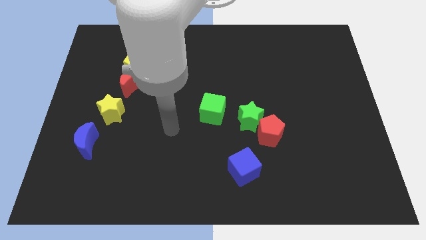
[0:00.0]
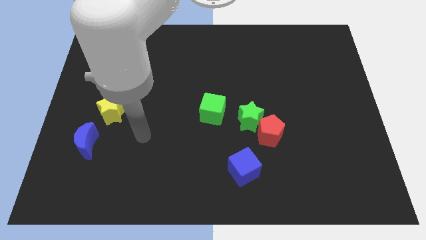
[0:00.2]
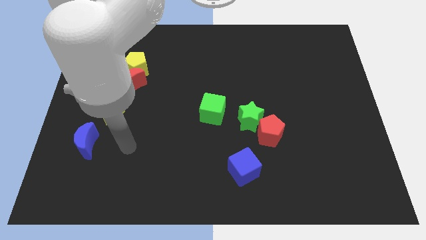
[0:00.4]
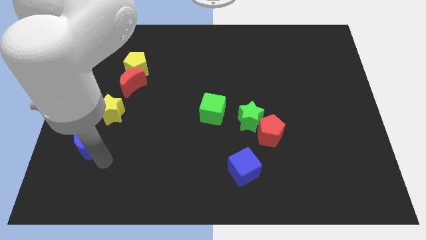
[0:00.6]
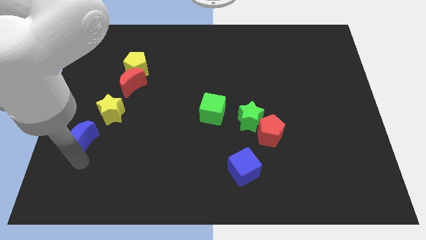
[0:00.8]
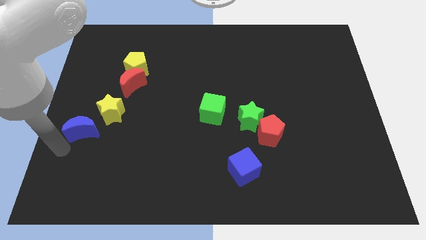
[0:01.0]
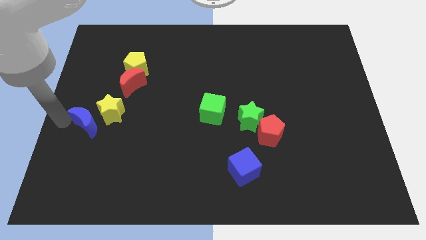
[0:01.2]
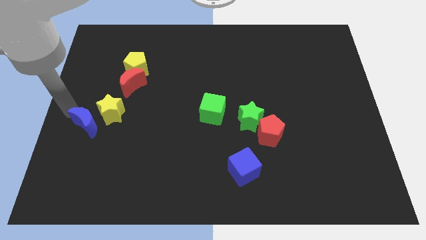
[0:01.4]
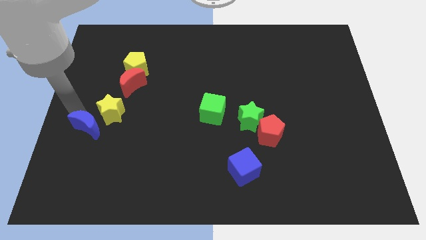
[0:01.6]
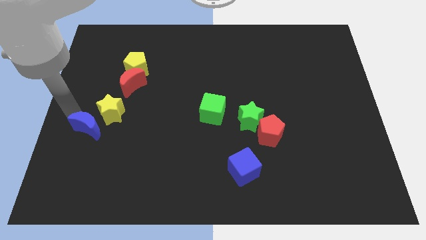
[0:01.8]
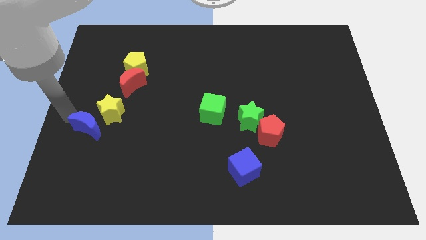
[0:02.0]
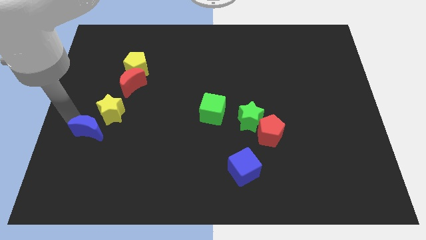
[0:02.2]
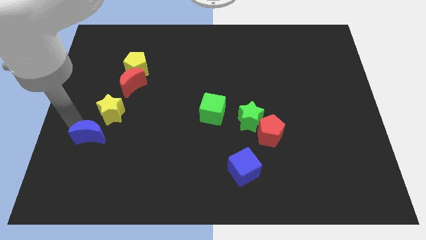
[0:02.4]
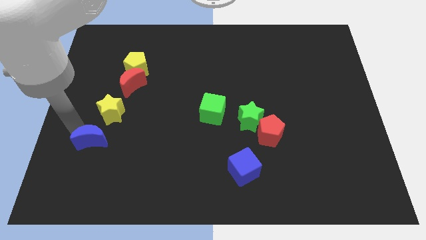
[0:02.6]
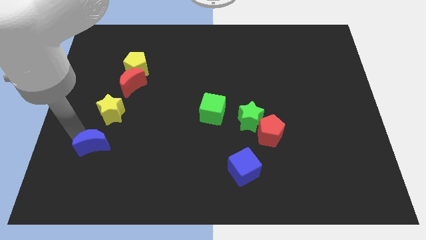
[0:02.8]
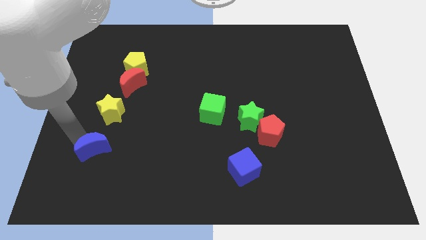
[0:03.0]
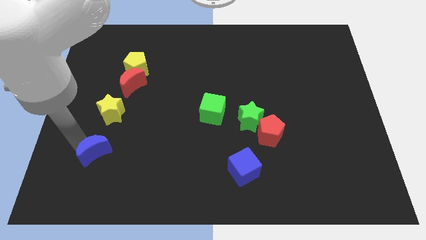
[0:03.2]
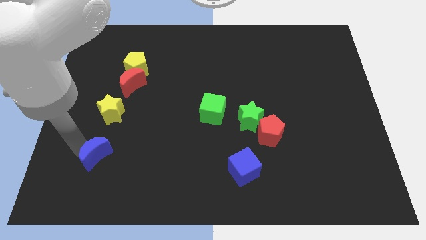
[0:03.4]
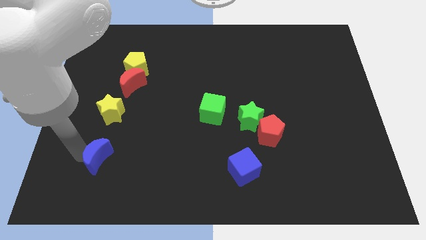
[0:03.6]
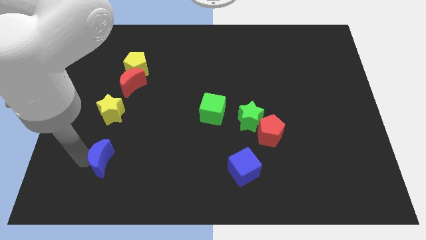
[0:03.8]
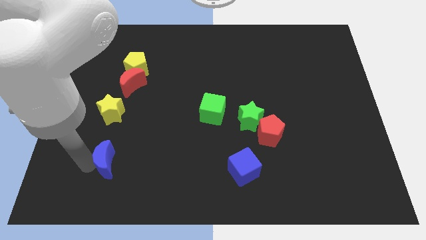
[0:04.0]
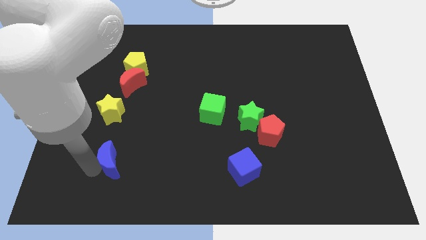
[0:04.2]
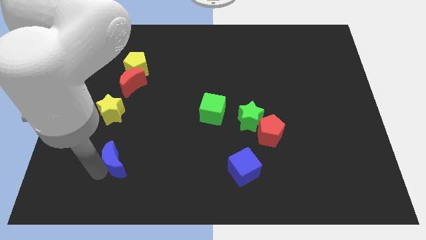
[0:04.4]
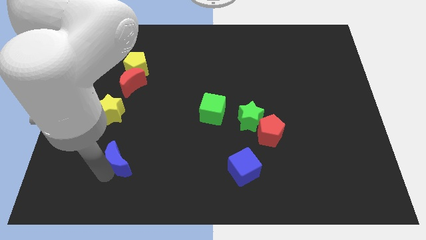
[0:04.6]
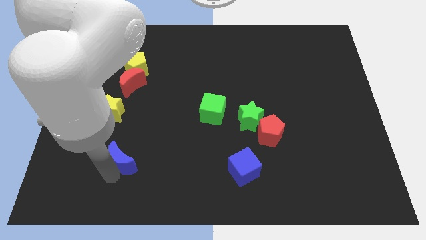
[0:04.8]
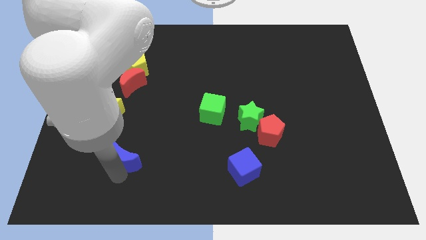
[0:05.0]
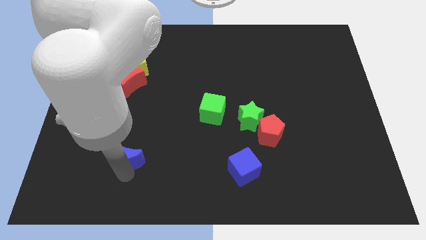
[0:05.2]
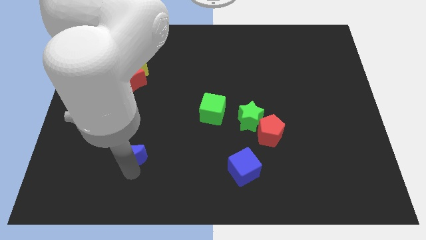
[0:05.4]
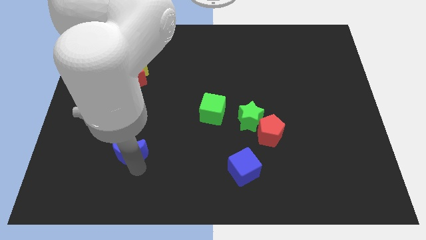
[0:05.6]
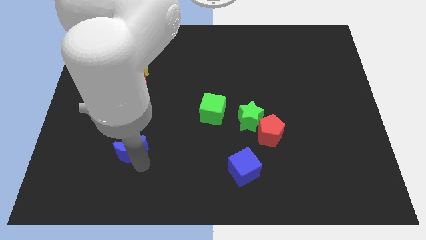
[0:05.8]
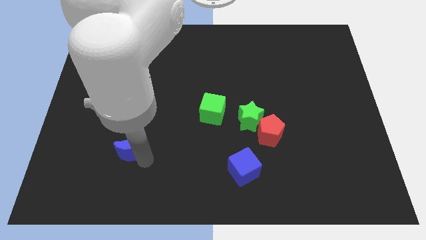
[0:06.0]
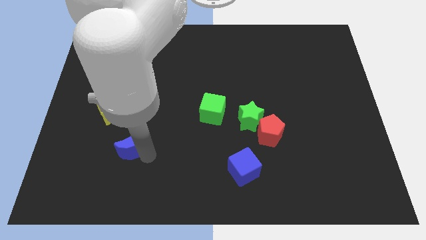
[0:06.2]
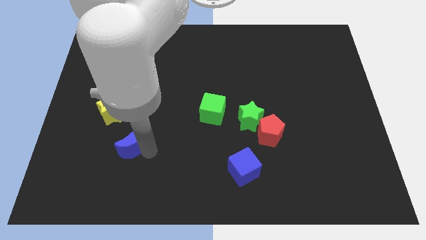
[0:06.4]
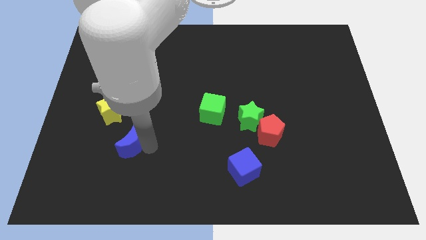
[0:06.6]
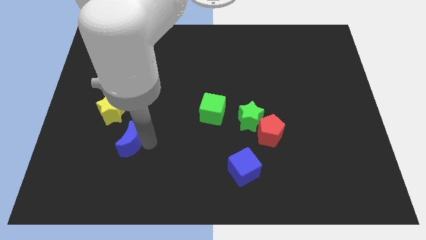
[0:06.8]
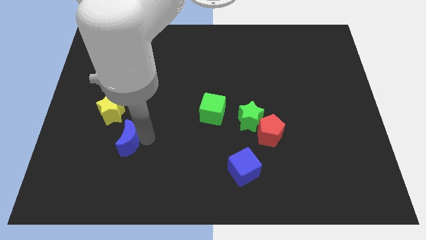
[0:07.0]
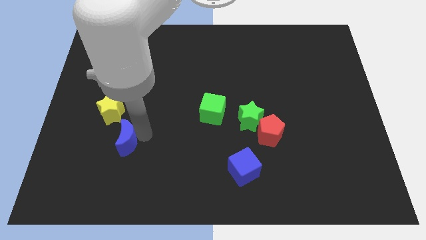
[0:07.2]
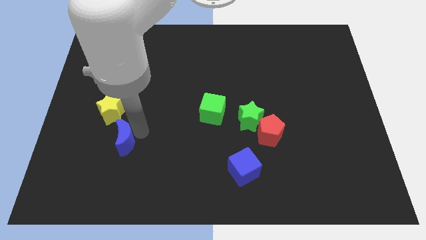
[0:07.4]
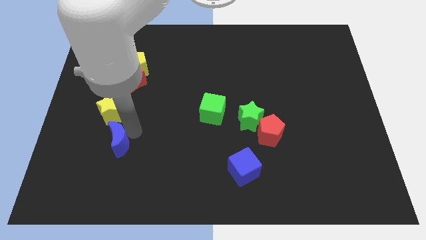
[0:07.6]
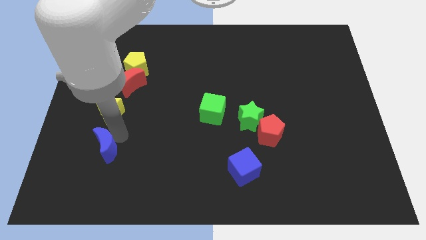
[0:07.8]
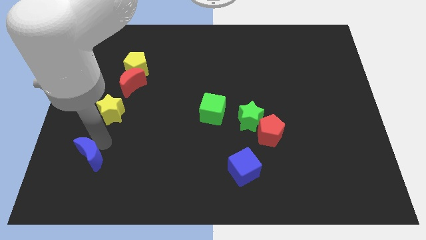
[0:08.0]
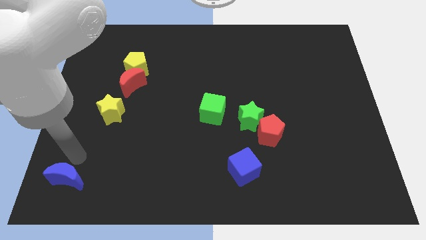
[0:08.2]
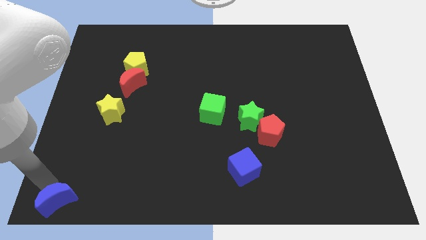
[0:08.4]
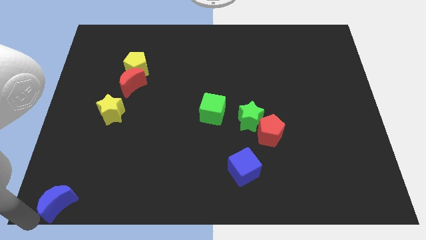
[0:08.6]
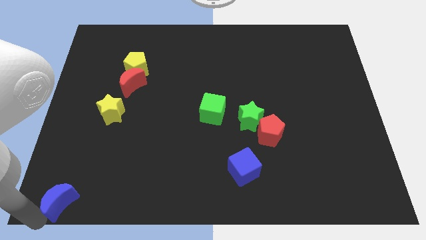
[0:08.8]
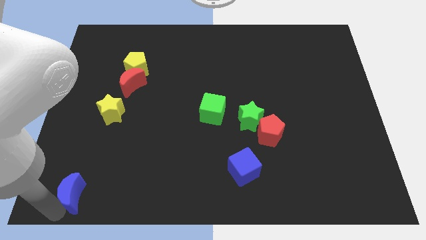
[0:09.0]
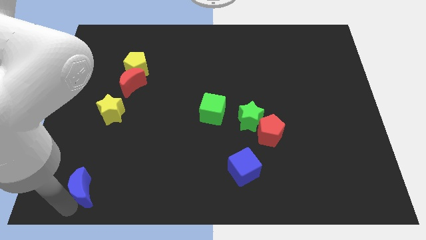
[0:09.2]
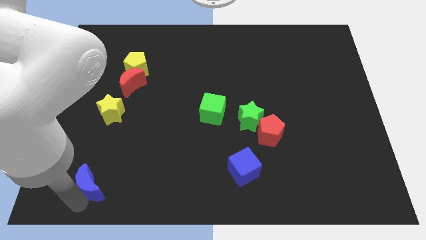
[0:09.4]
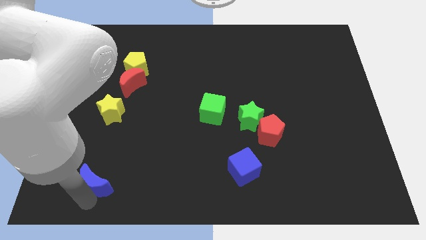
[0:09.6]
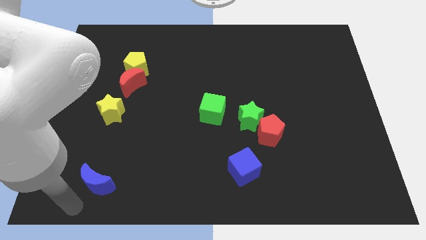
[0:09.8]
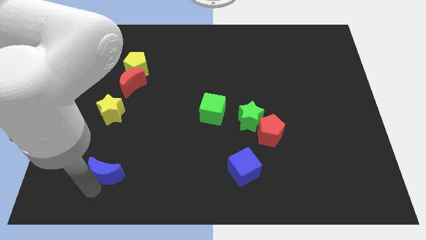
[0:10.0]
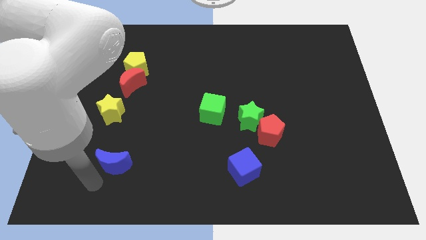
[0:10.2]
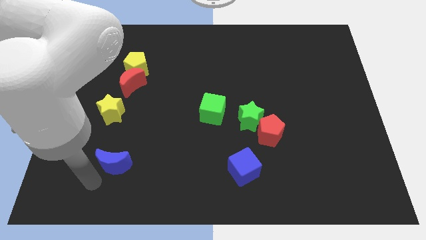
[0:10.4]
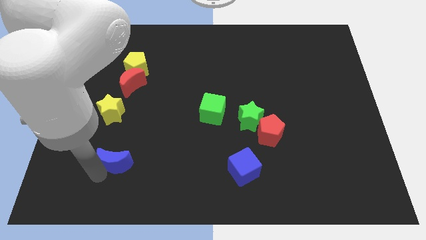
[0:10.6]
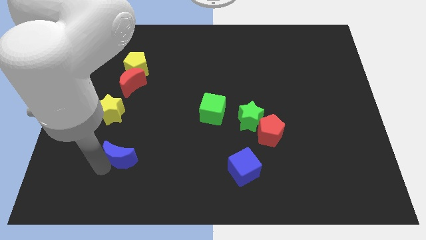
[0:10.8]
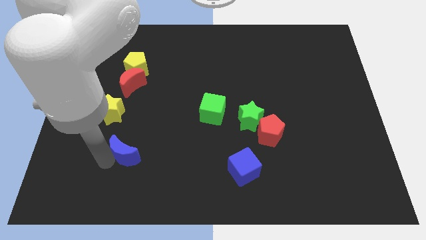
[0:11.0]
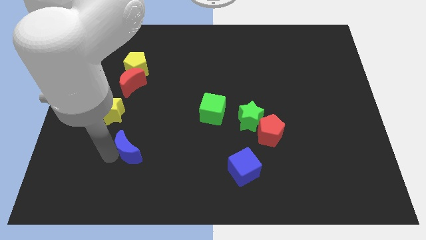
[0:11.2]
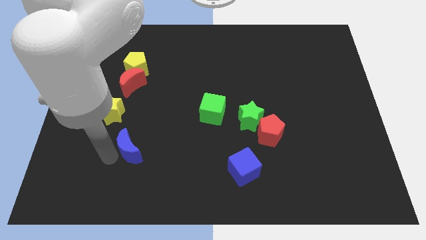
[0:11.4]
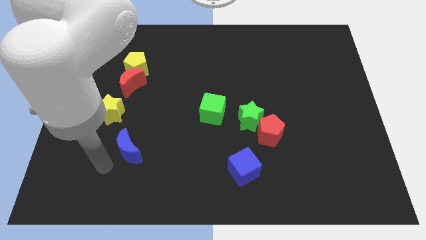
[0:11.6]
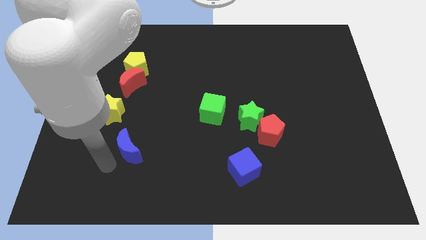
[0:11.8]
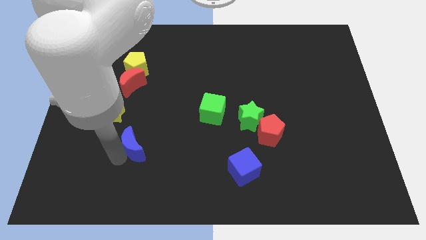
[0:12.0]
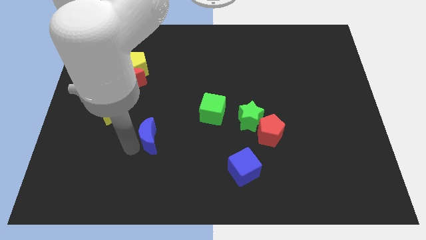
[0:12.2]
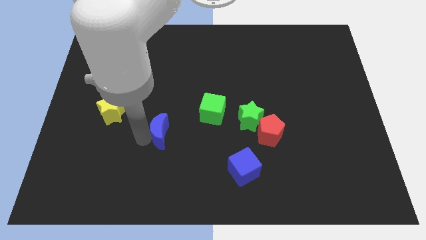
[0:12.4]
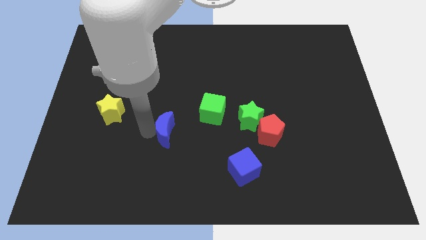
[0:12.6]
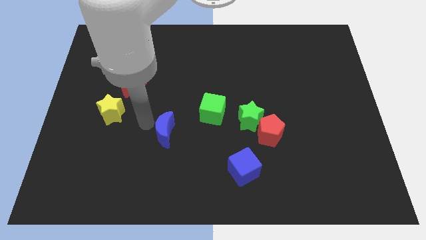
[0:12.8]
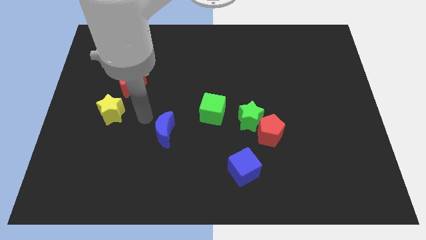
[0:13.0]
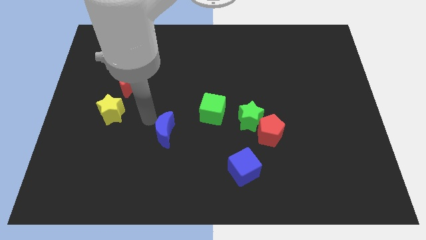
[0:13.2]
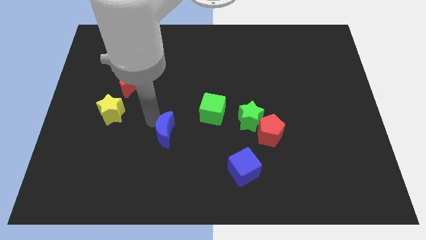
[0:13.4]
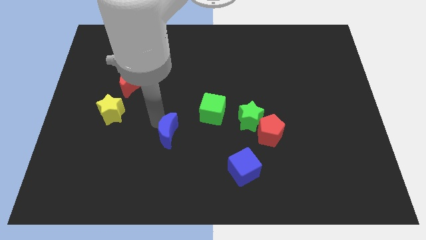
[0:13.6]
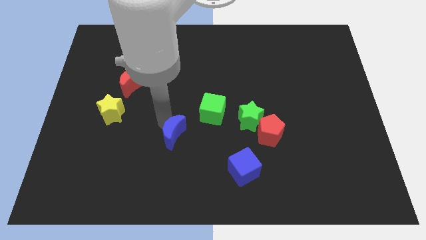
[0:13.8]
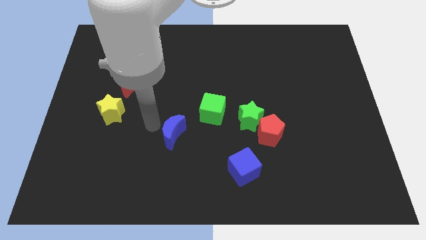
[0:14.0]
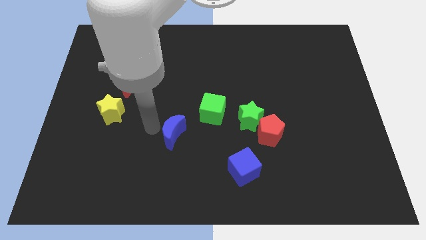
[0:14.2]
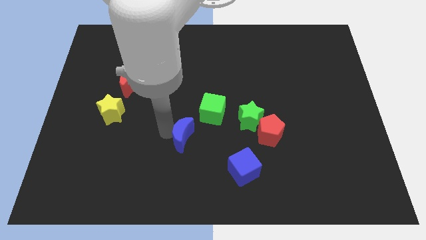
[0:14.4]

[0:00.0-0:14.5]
move the blue moon to the right

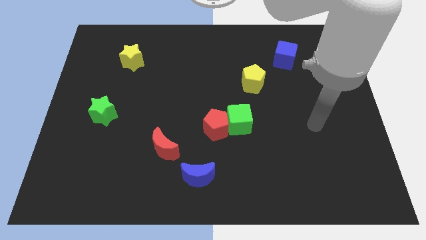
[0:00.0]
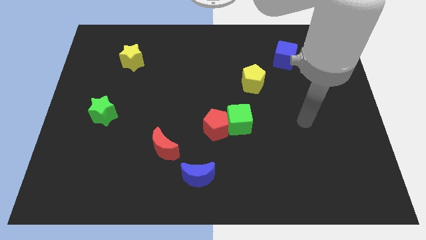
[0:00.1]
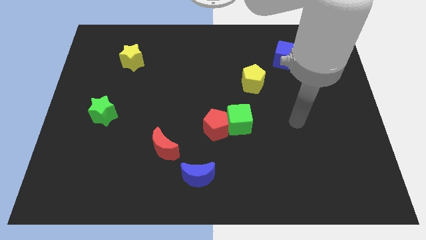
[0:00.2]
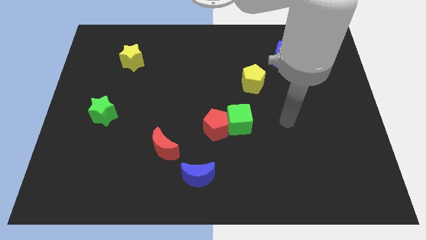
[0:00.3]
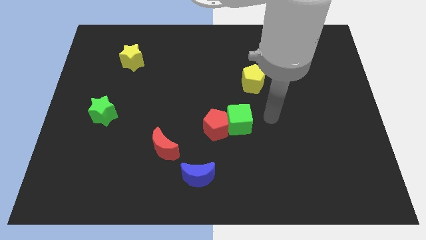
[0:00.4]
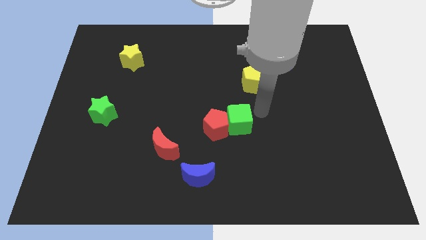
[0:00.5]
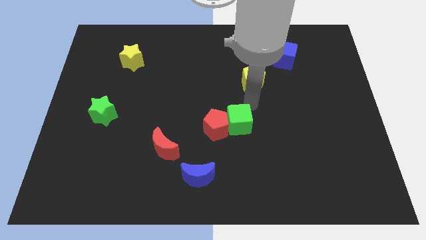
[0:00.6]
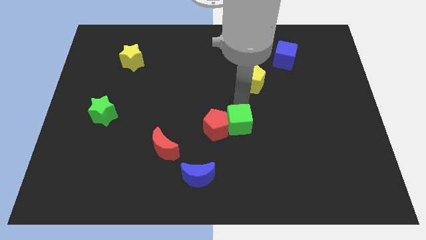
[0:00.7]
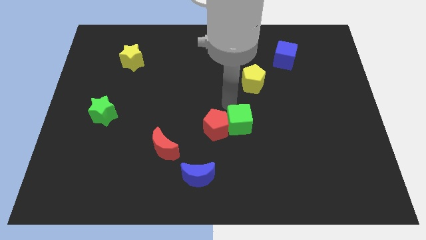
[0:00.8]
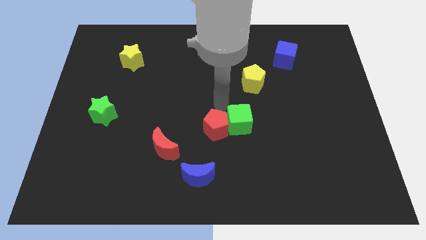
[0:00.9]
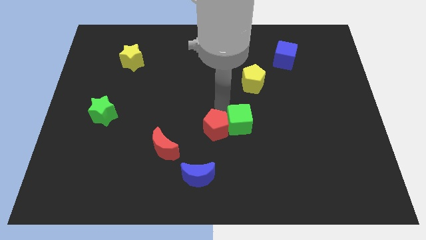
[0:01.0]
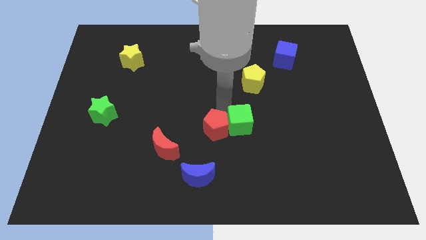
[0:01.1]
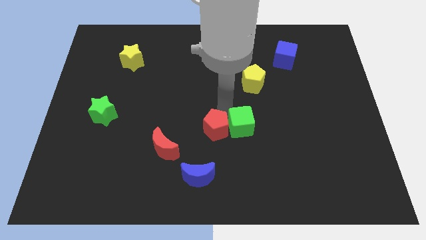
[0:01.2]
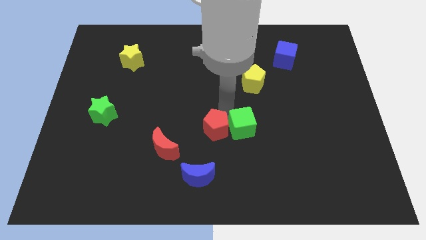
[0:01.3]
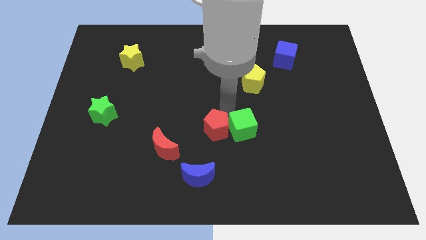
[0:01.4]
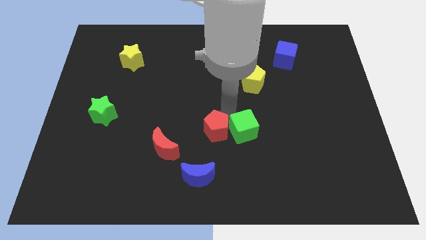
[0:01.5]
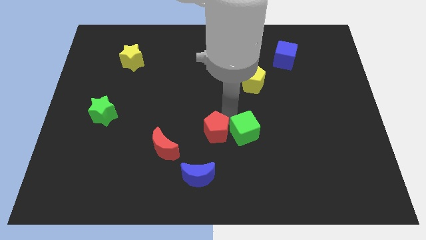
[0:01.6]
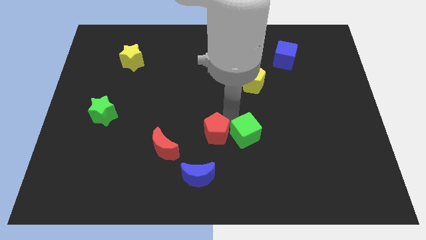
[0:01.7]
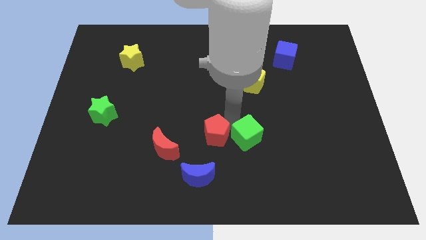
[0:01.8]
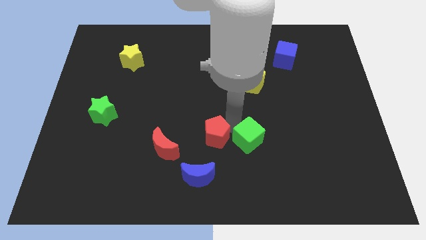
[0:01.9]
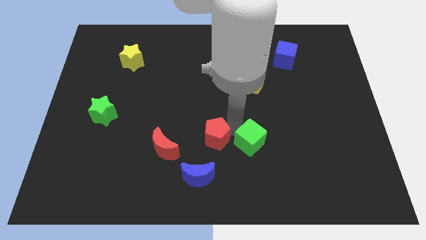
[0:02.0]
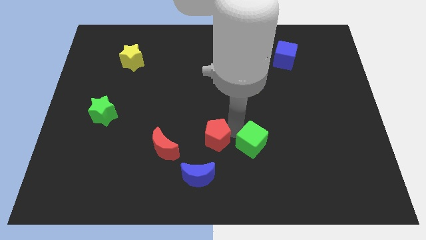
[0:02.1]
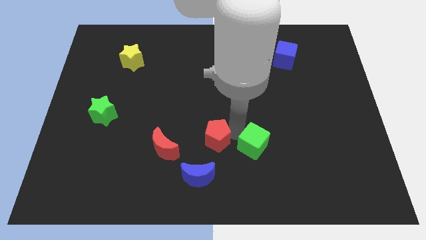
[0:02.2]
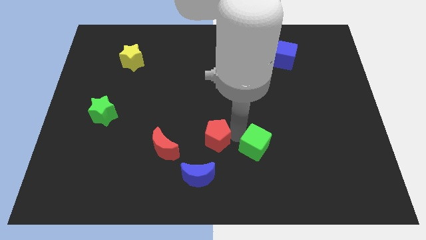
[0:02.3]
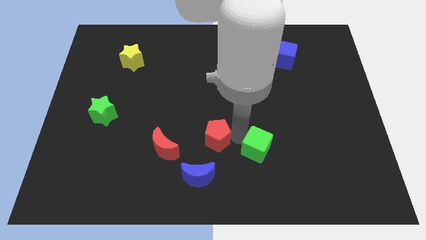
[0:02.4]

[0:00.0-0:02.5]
slide the green cube down and right diagonally a little
